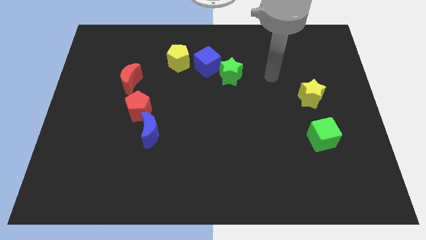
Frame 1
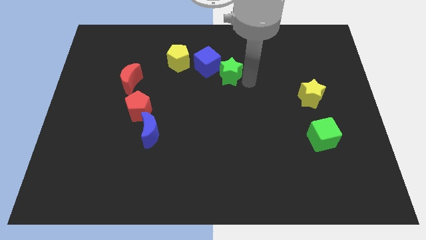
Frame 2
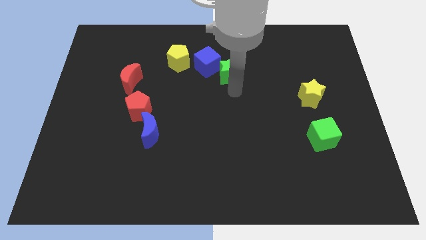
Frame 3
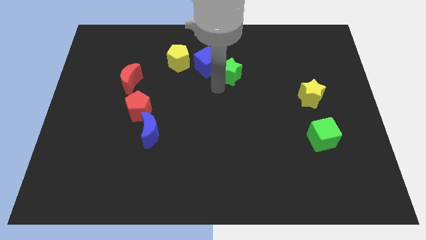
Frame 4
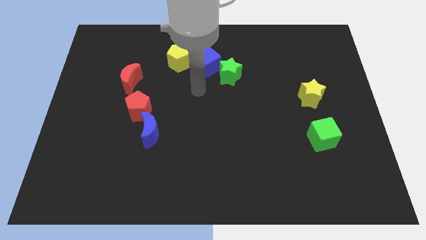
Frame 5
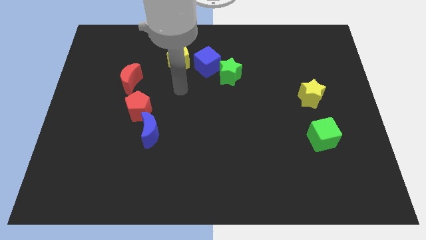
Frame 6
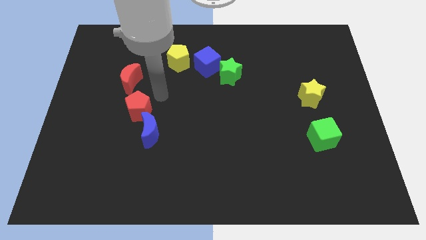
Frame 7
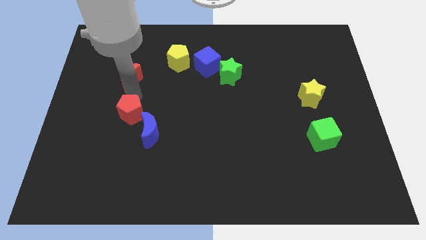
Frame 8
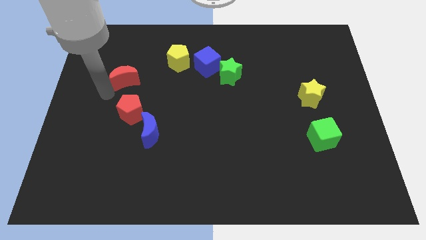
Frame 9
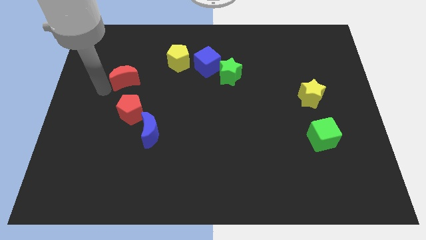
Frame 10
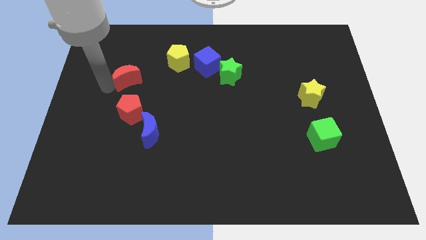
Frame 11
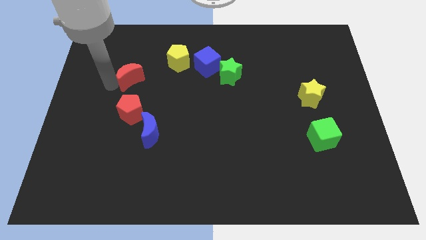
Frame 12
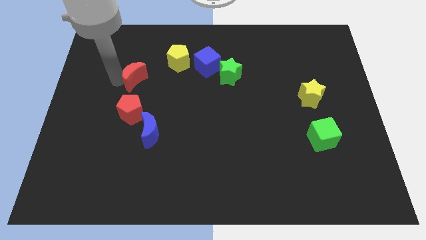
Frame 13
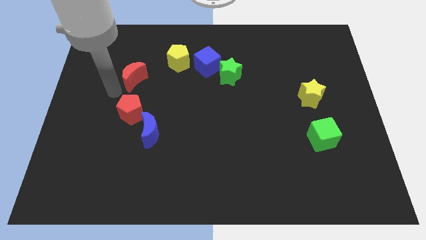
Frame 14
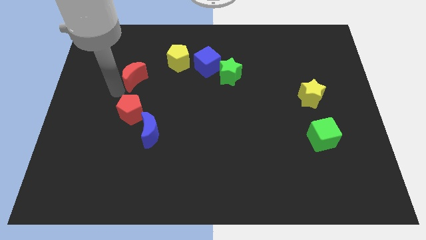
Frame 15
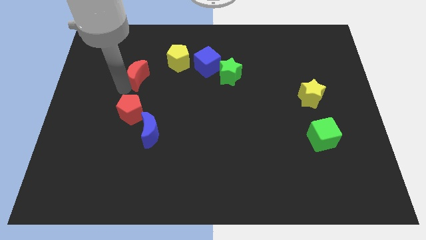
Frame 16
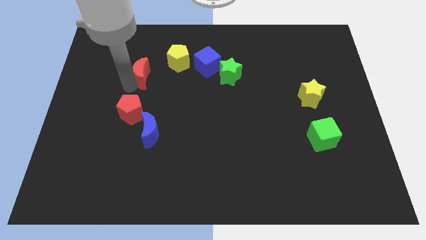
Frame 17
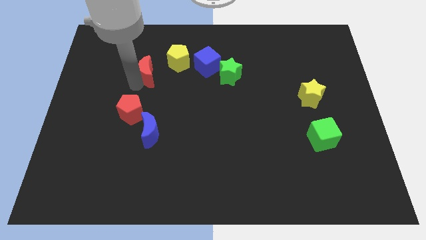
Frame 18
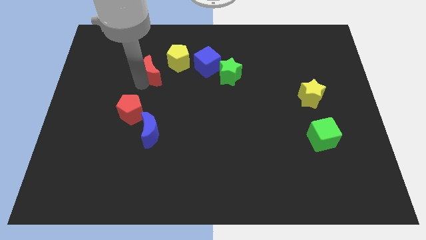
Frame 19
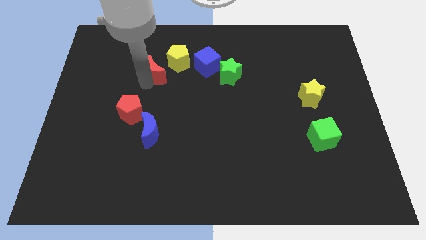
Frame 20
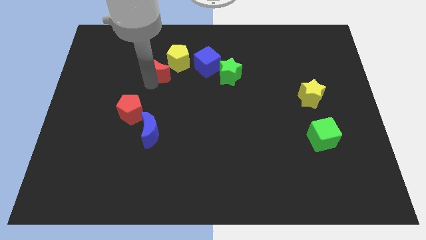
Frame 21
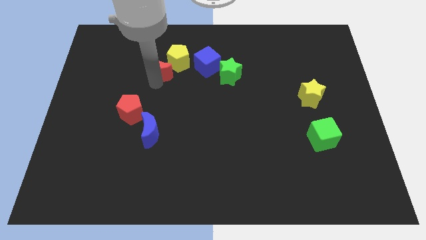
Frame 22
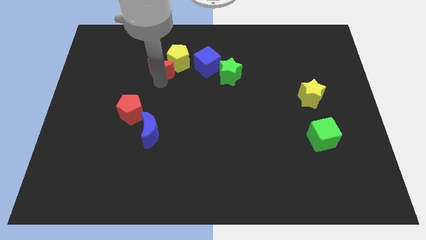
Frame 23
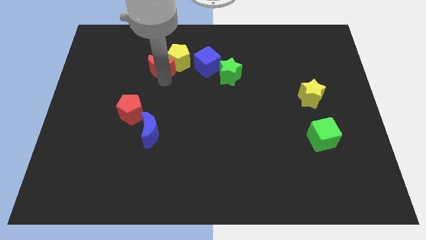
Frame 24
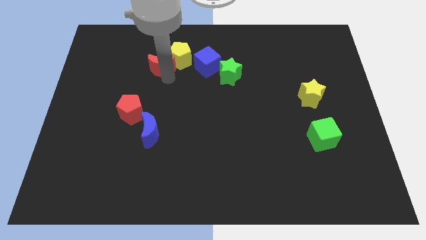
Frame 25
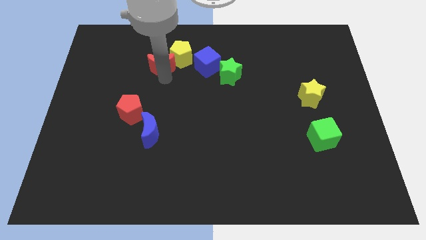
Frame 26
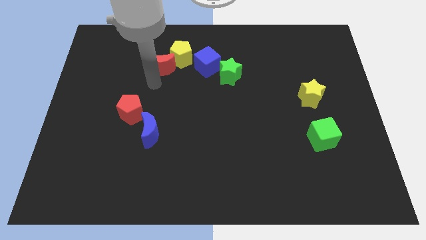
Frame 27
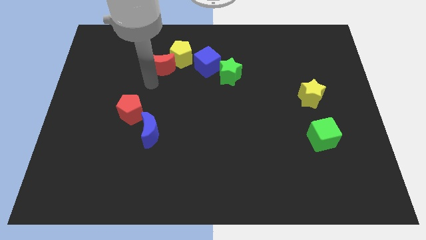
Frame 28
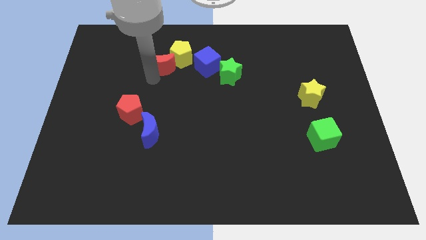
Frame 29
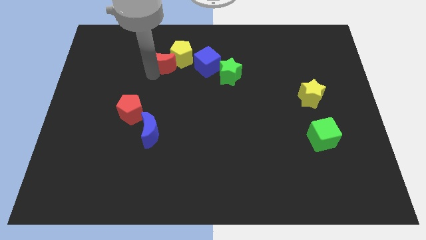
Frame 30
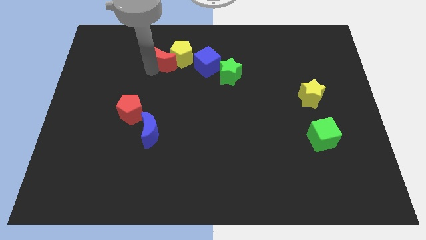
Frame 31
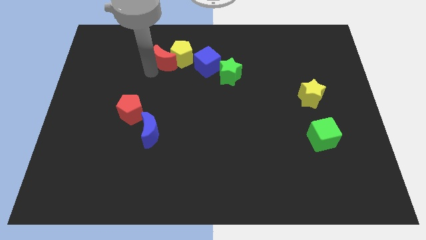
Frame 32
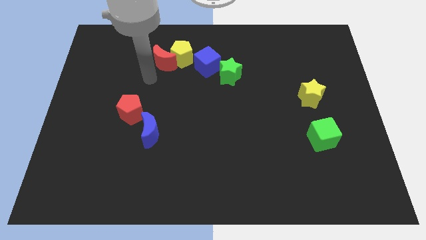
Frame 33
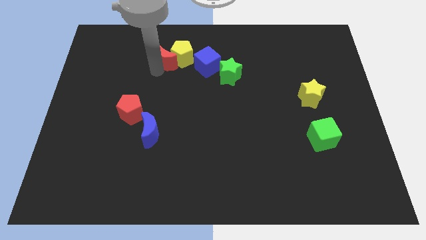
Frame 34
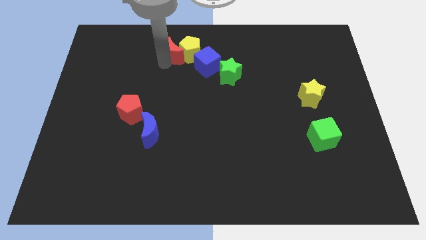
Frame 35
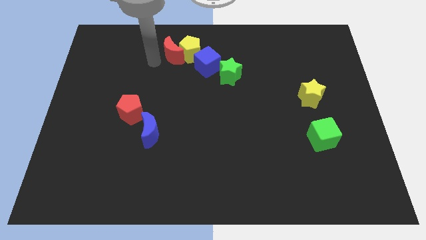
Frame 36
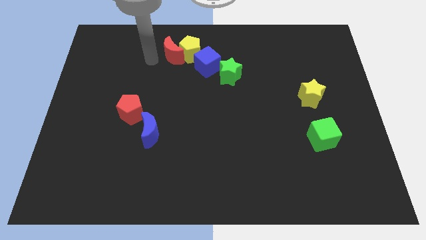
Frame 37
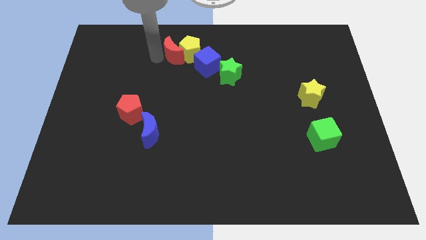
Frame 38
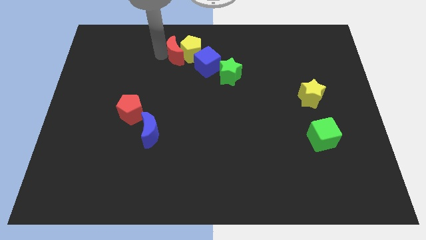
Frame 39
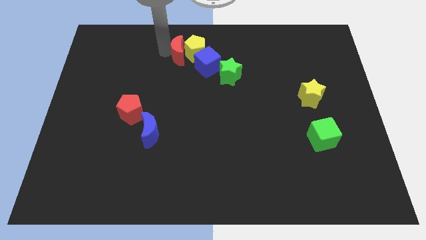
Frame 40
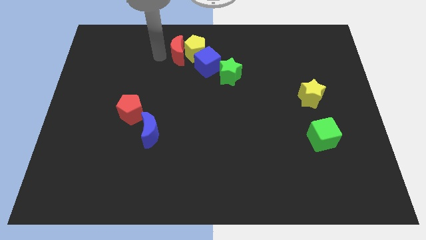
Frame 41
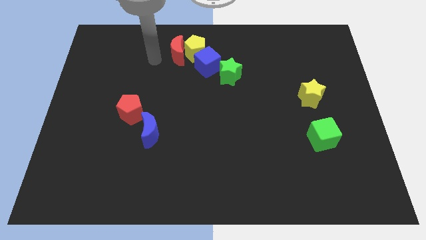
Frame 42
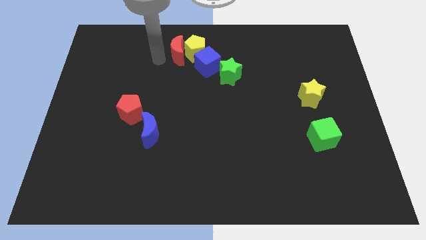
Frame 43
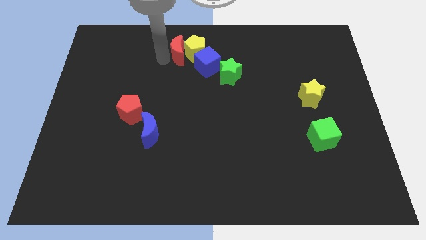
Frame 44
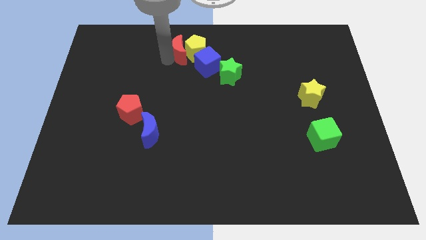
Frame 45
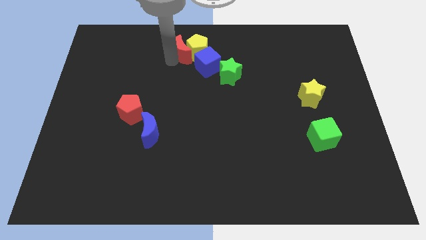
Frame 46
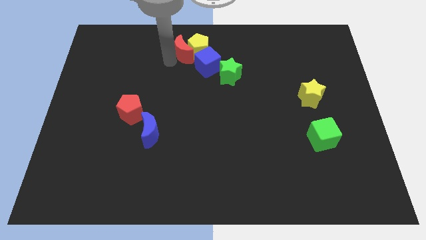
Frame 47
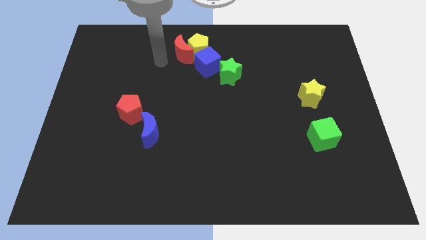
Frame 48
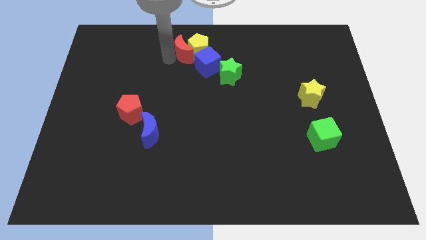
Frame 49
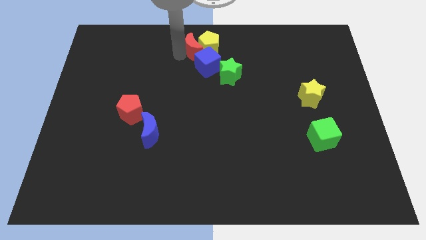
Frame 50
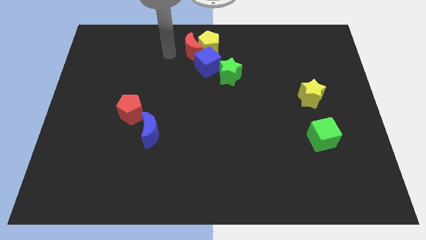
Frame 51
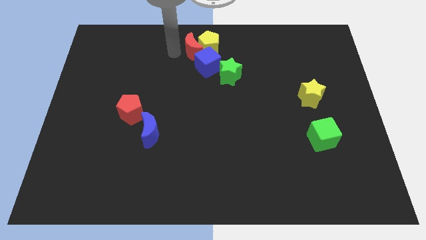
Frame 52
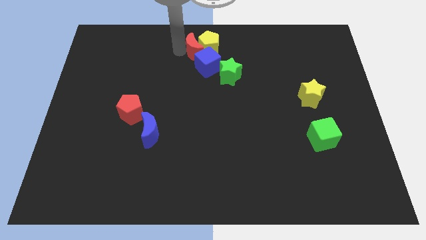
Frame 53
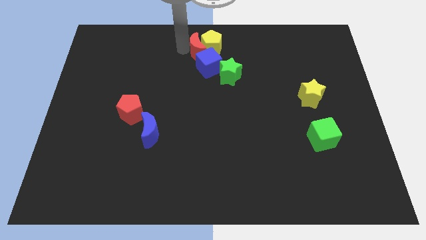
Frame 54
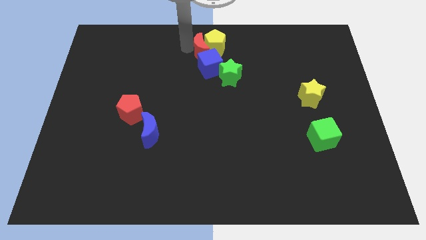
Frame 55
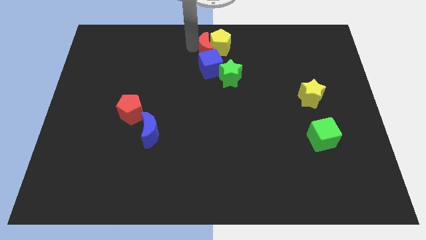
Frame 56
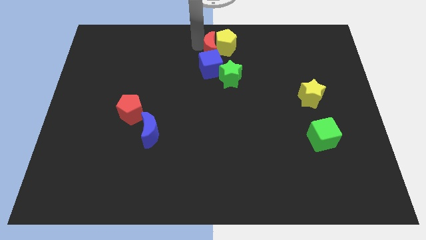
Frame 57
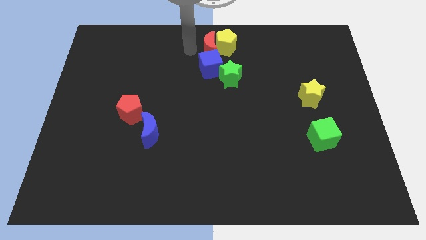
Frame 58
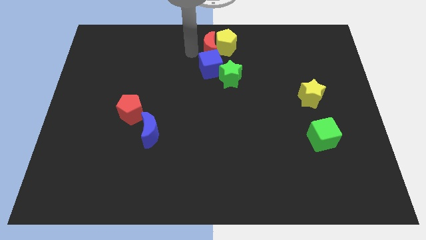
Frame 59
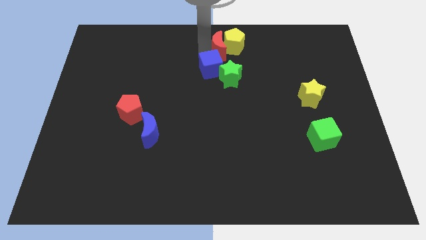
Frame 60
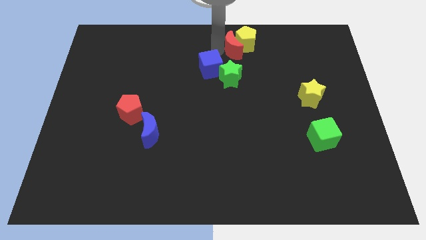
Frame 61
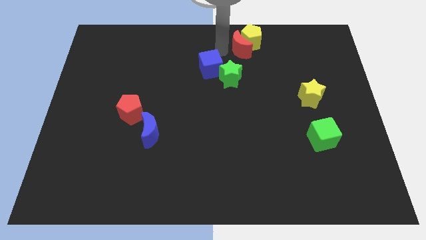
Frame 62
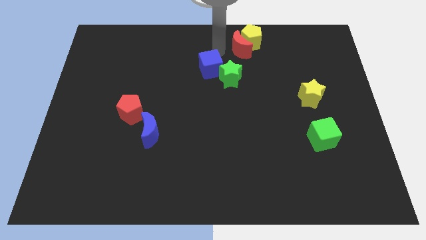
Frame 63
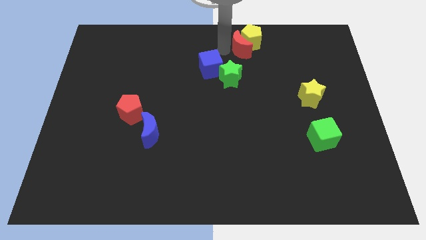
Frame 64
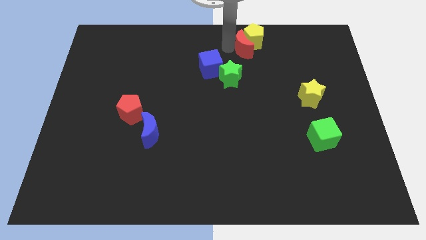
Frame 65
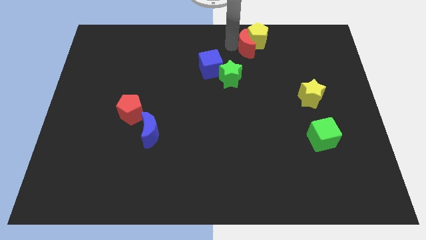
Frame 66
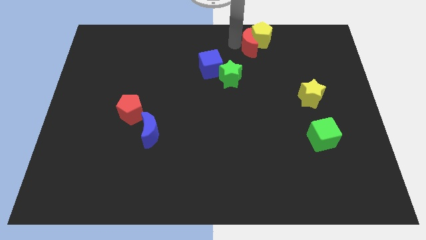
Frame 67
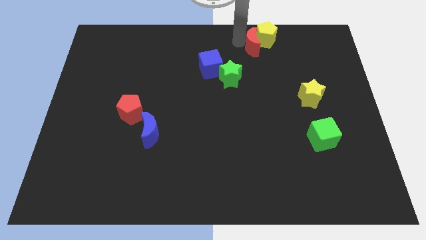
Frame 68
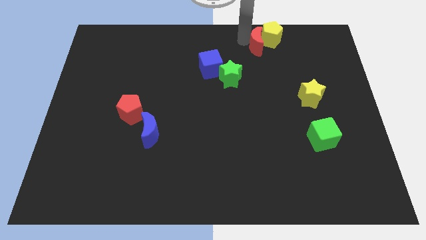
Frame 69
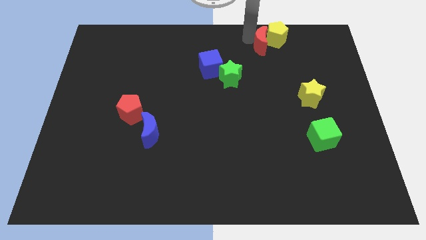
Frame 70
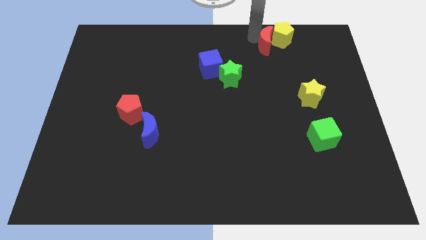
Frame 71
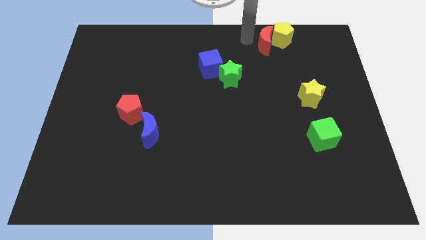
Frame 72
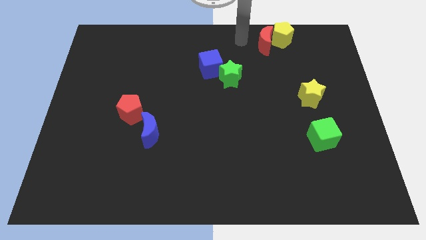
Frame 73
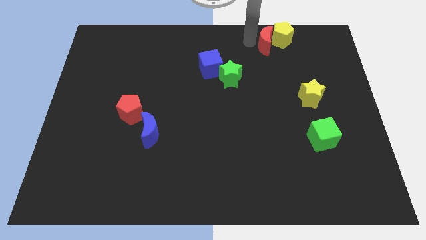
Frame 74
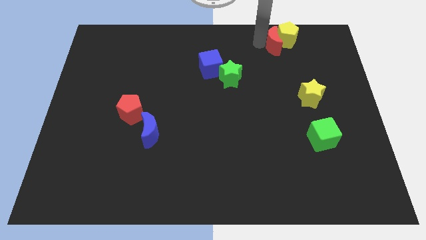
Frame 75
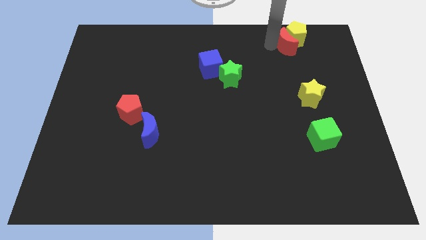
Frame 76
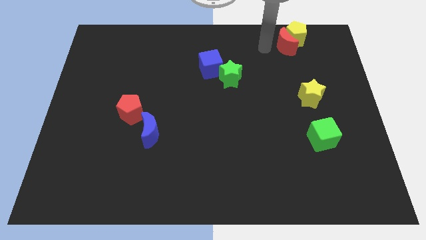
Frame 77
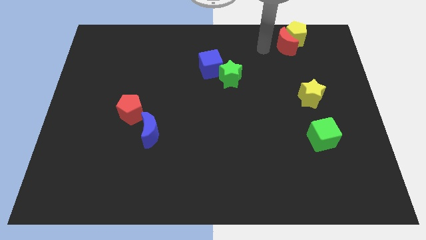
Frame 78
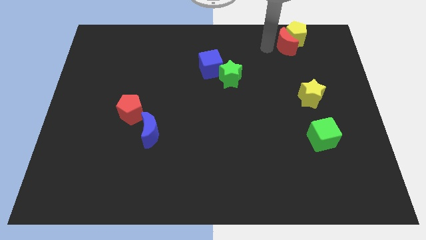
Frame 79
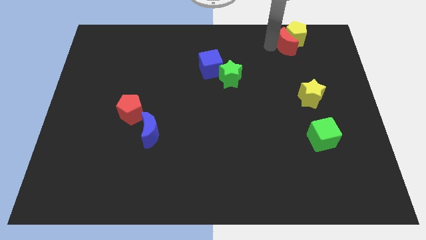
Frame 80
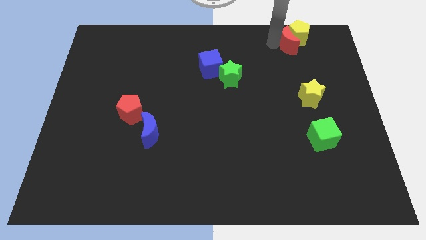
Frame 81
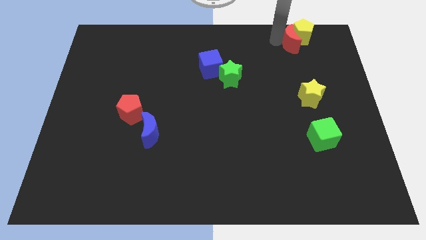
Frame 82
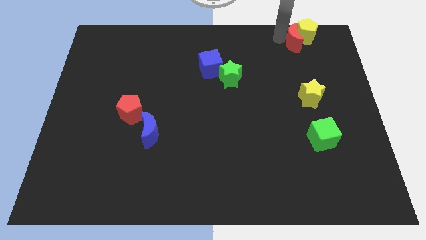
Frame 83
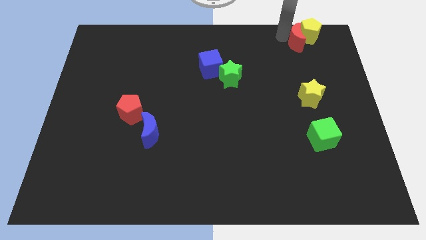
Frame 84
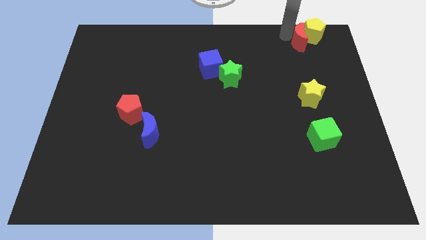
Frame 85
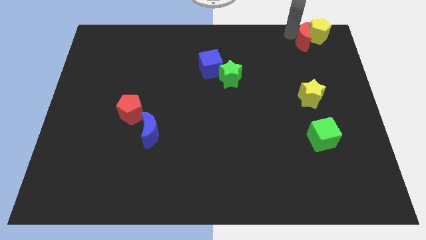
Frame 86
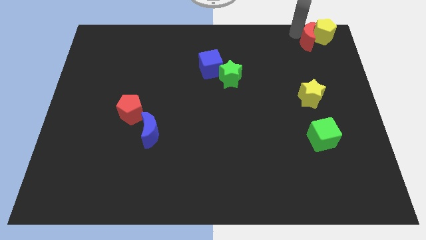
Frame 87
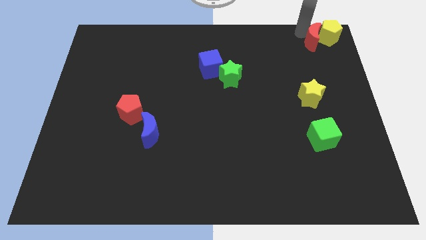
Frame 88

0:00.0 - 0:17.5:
put the red moon to the upper right corner
